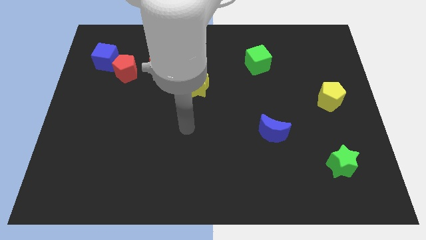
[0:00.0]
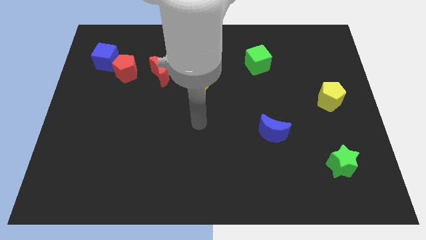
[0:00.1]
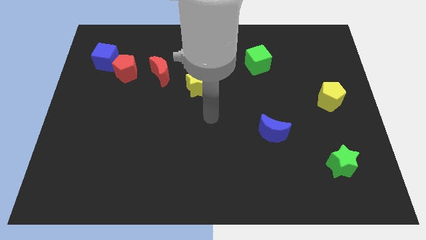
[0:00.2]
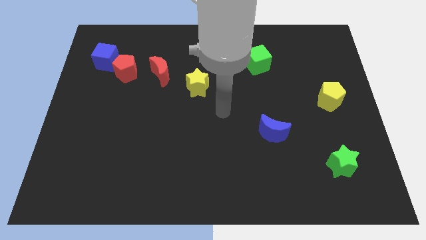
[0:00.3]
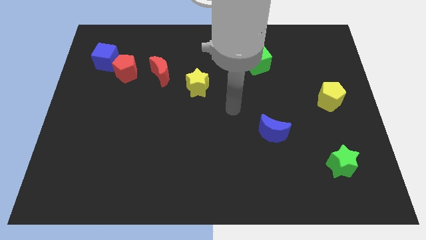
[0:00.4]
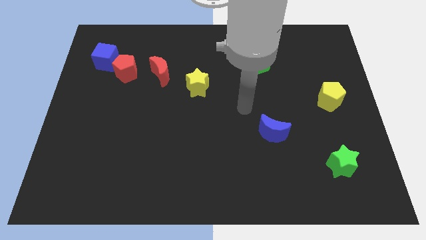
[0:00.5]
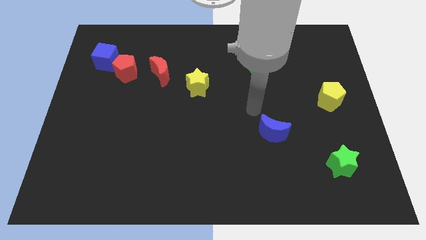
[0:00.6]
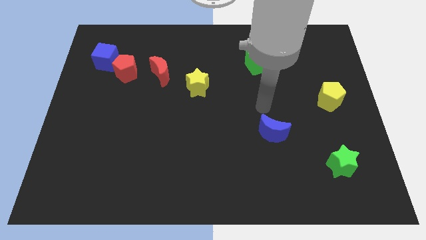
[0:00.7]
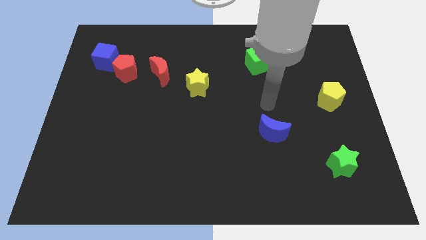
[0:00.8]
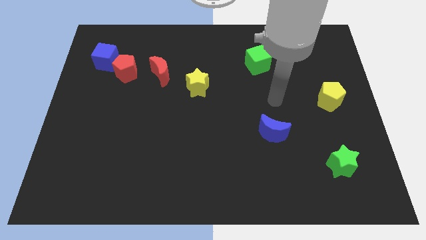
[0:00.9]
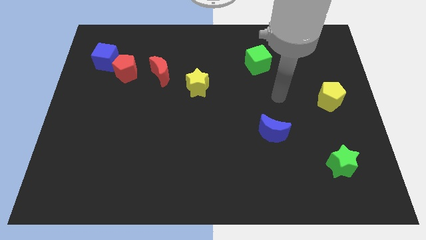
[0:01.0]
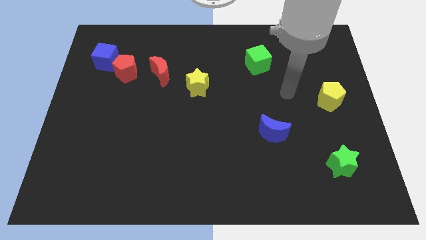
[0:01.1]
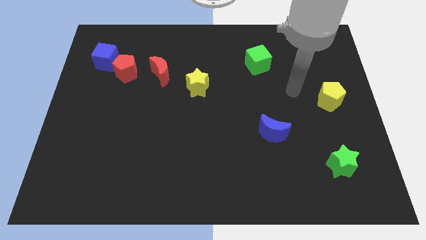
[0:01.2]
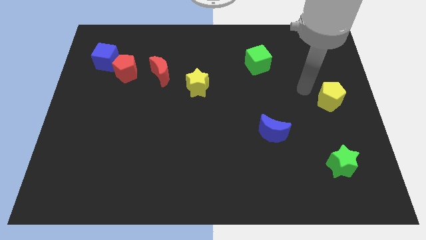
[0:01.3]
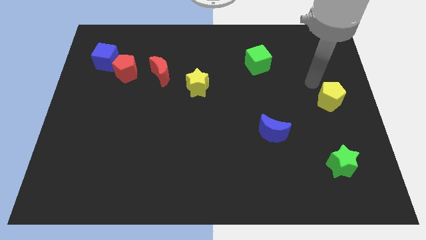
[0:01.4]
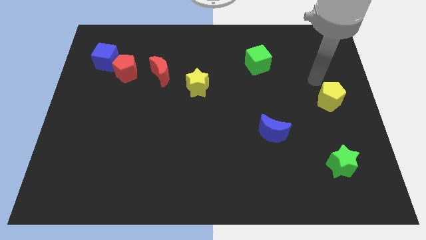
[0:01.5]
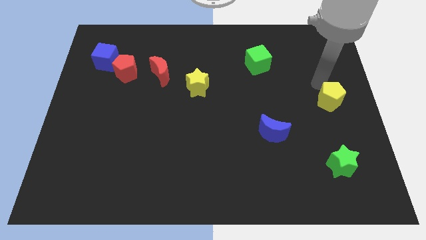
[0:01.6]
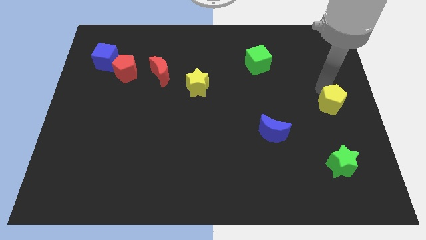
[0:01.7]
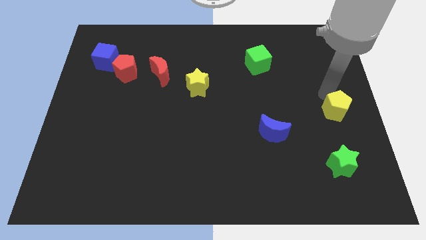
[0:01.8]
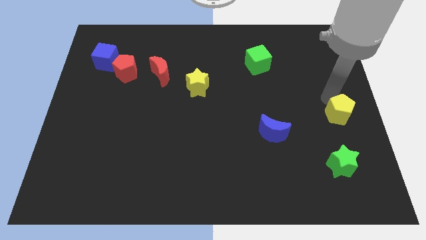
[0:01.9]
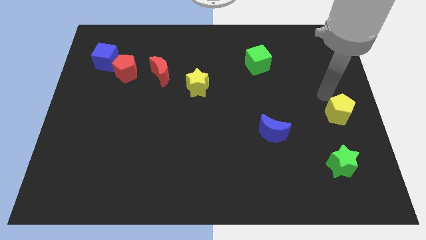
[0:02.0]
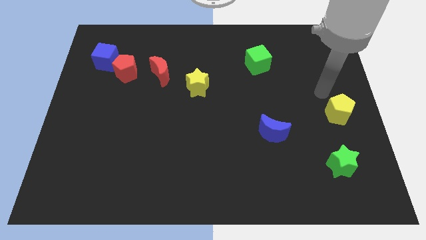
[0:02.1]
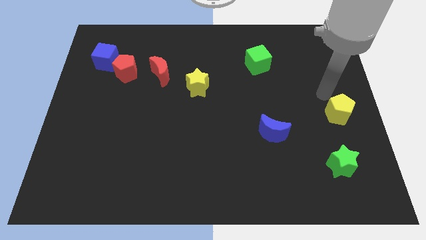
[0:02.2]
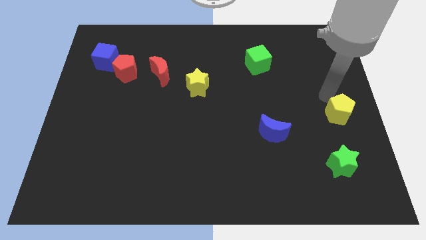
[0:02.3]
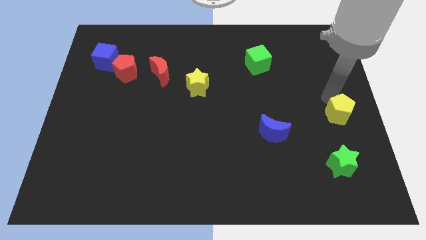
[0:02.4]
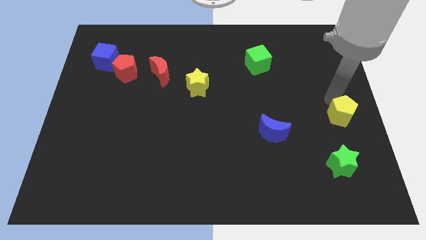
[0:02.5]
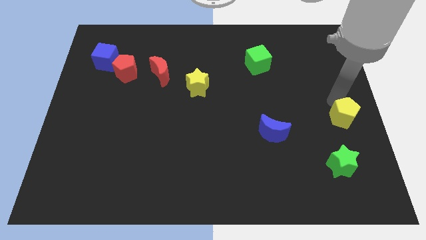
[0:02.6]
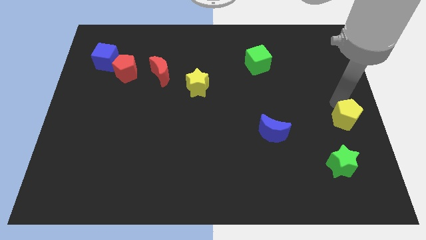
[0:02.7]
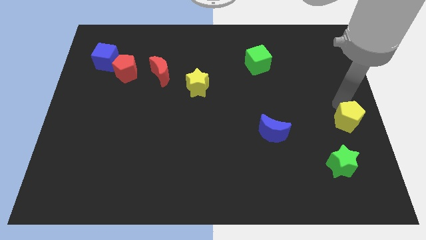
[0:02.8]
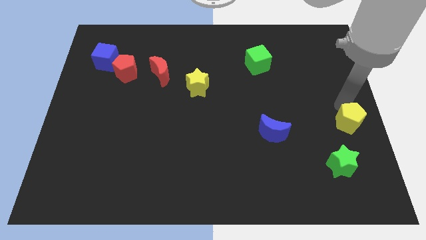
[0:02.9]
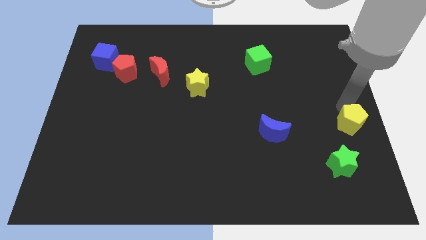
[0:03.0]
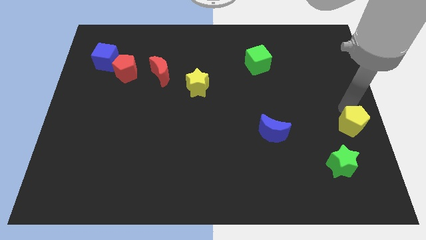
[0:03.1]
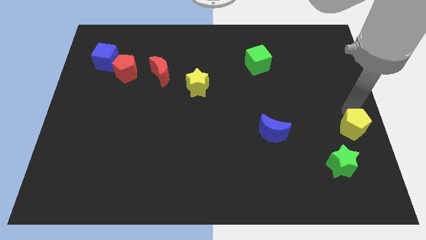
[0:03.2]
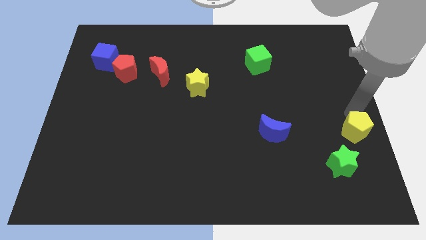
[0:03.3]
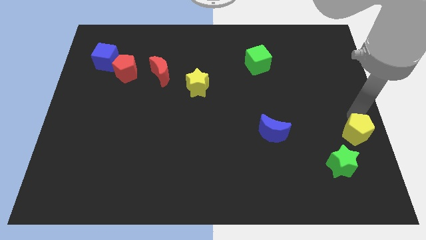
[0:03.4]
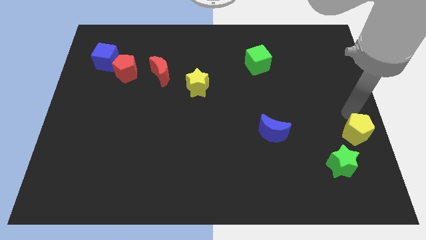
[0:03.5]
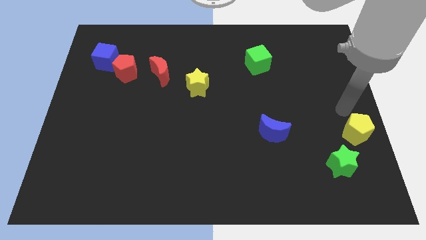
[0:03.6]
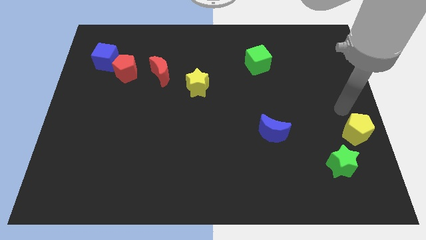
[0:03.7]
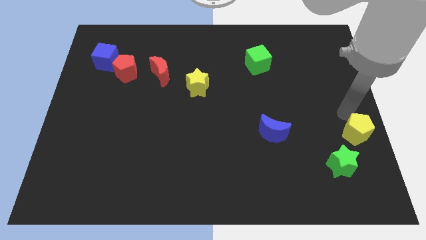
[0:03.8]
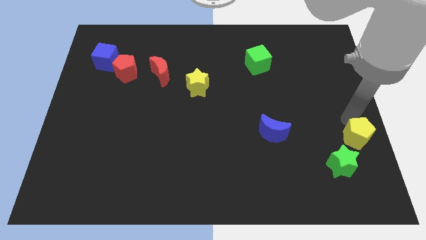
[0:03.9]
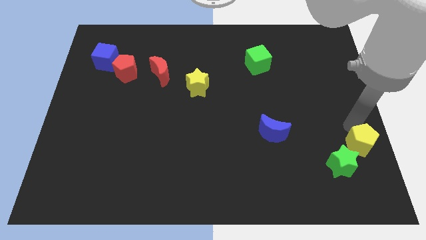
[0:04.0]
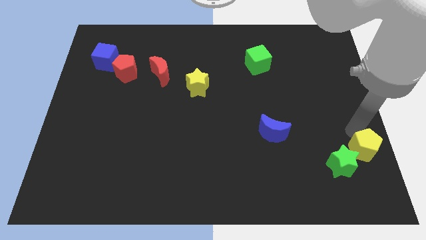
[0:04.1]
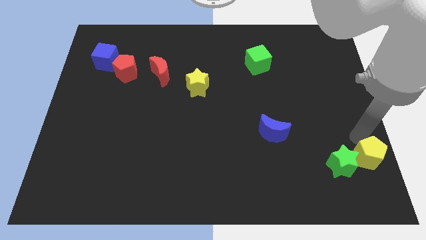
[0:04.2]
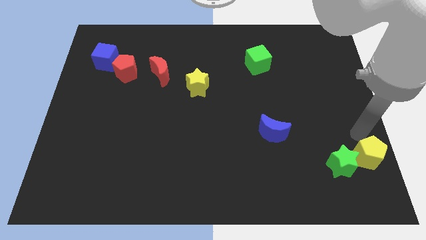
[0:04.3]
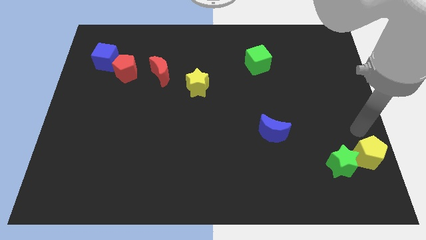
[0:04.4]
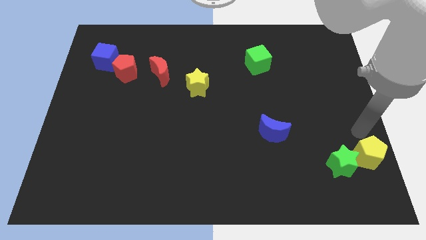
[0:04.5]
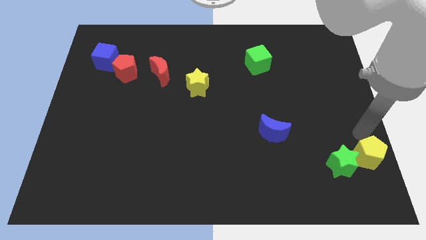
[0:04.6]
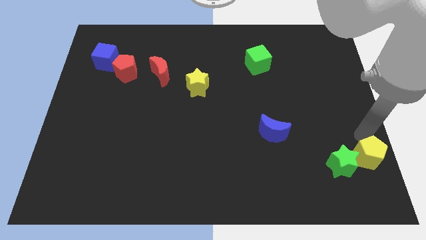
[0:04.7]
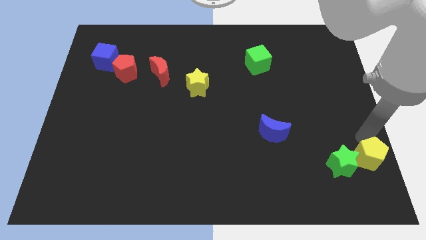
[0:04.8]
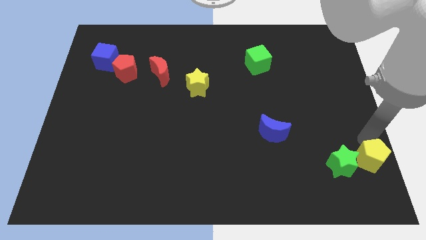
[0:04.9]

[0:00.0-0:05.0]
push the yellow pentagon to the bottom right of the board

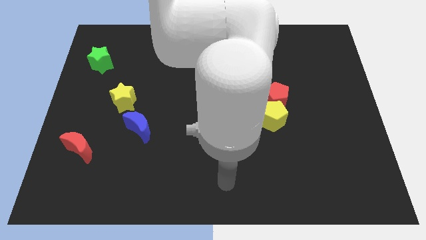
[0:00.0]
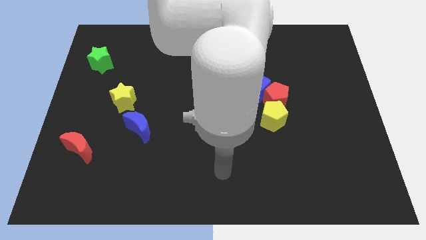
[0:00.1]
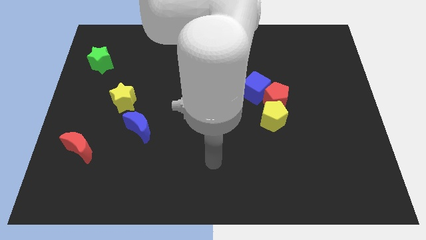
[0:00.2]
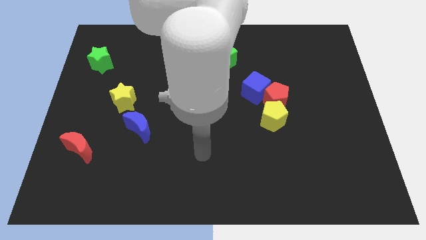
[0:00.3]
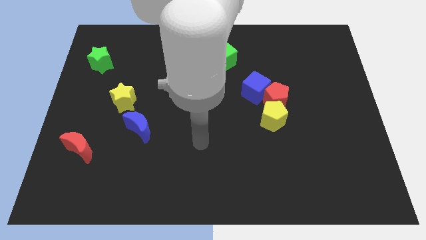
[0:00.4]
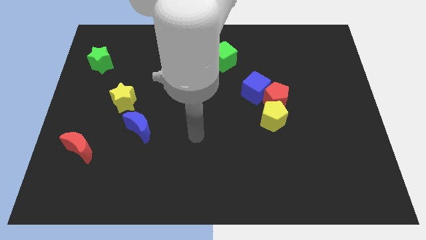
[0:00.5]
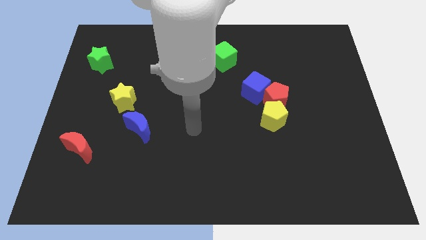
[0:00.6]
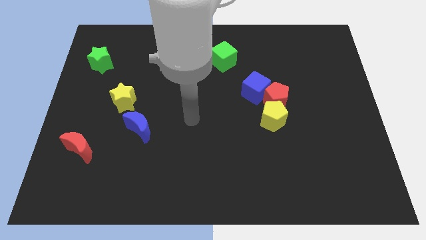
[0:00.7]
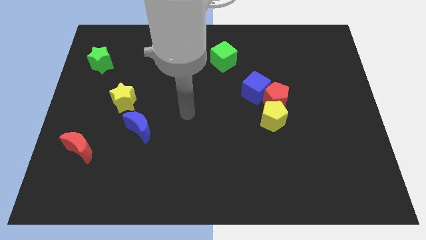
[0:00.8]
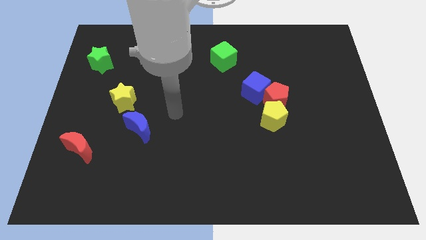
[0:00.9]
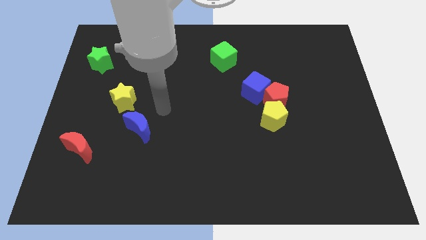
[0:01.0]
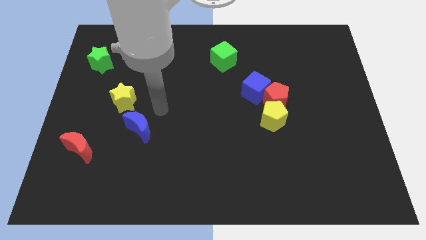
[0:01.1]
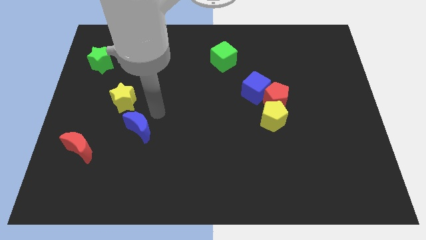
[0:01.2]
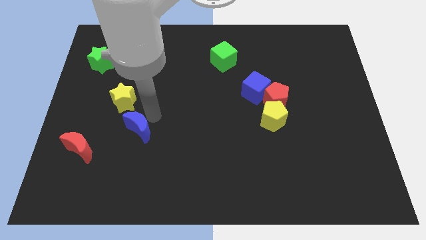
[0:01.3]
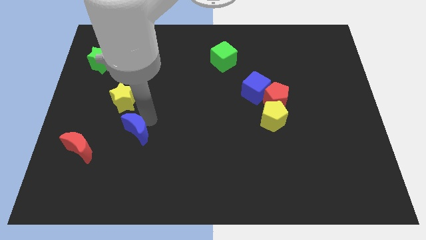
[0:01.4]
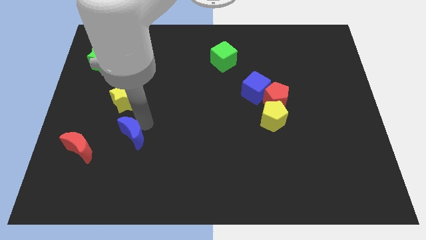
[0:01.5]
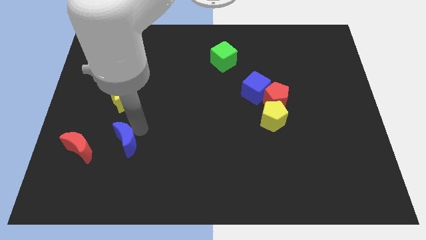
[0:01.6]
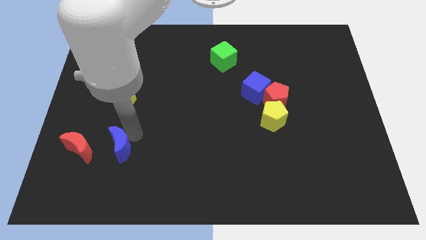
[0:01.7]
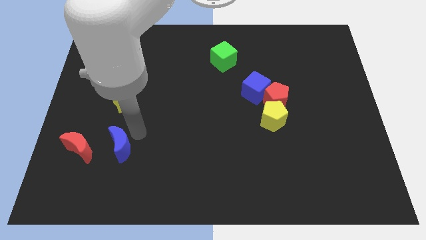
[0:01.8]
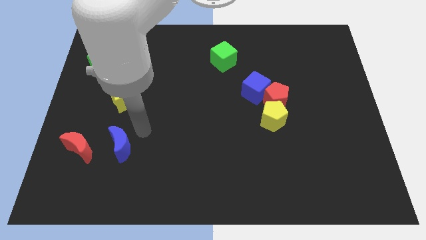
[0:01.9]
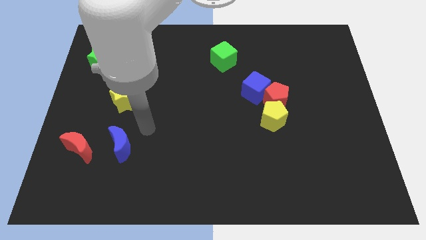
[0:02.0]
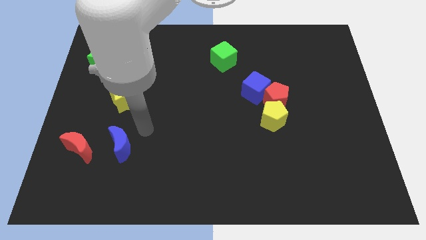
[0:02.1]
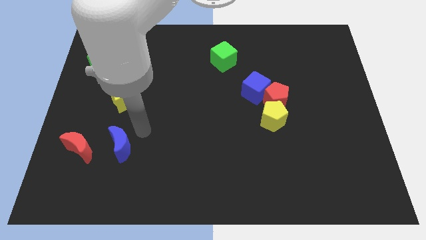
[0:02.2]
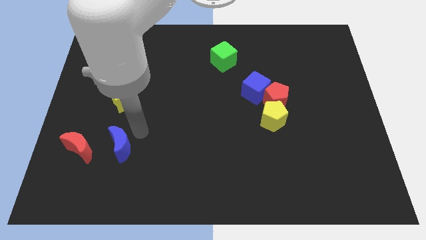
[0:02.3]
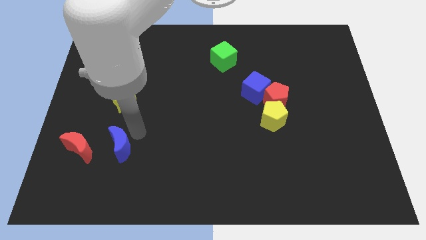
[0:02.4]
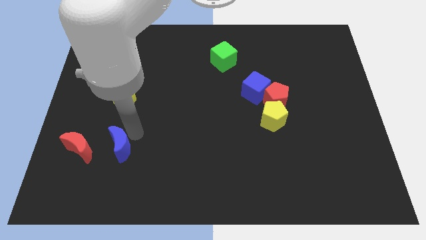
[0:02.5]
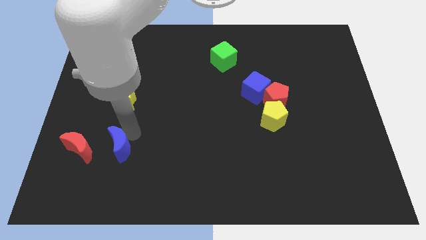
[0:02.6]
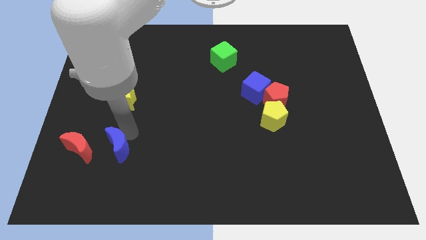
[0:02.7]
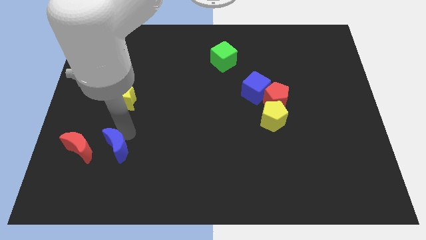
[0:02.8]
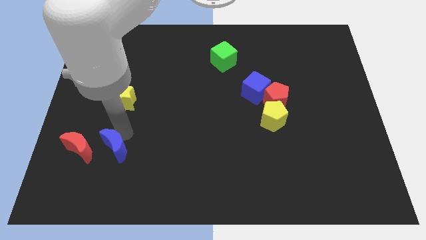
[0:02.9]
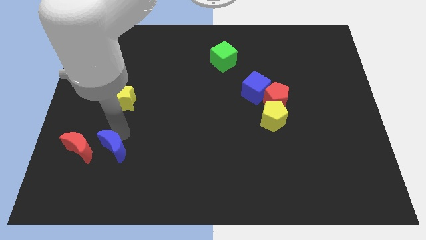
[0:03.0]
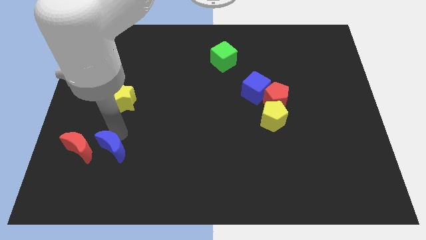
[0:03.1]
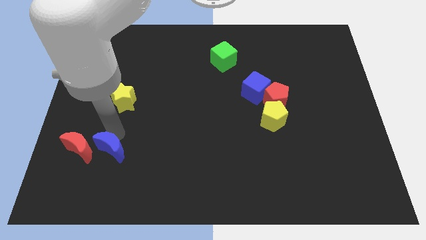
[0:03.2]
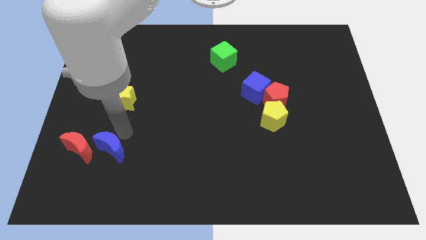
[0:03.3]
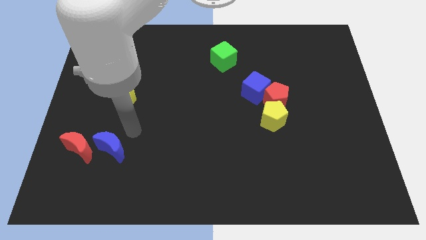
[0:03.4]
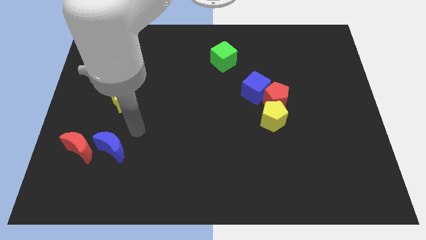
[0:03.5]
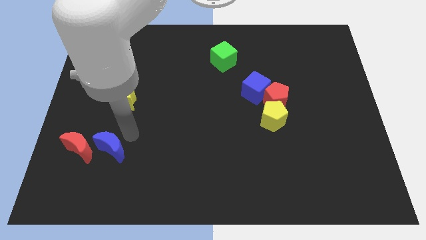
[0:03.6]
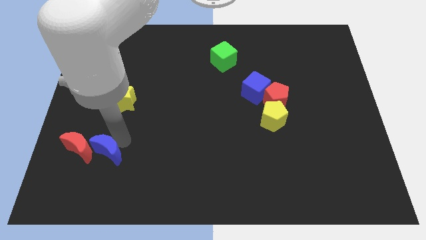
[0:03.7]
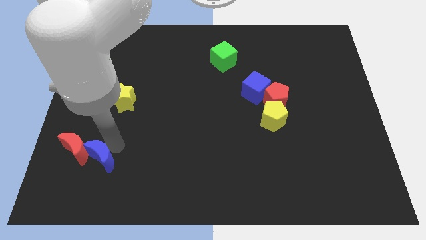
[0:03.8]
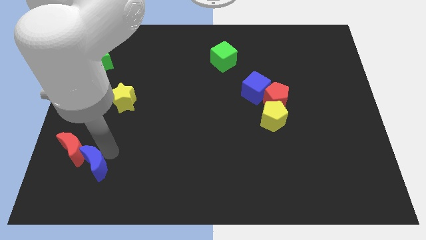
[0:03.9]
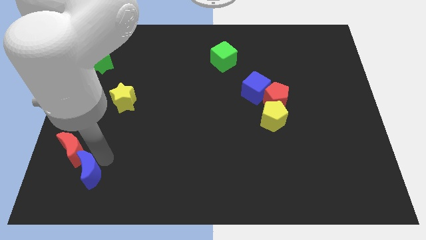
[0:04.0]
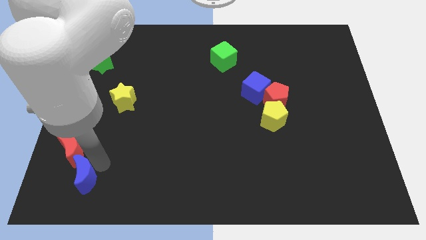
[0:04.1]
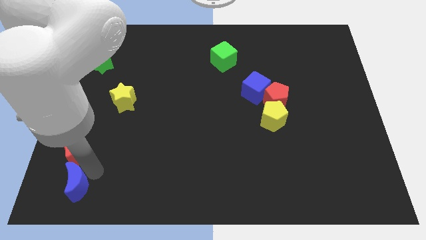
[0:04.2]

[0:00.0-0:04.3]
push the blue moon to the bottom left corner
